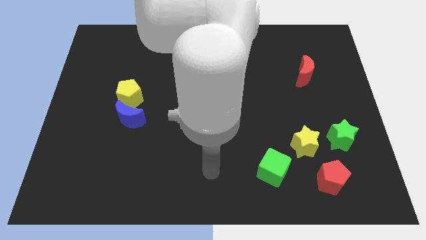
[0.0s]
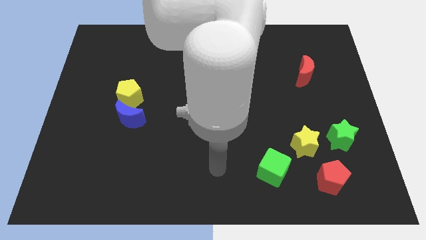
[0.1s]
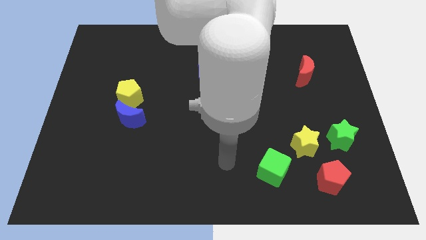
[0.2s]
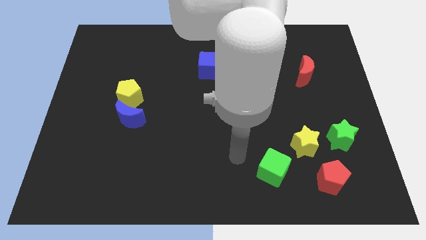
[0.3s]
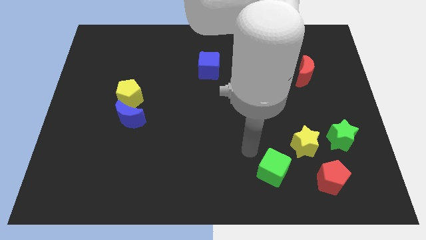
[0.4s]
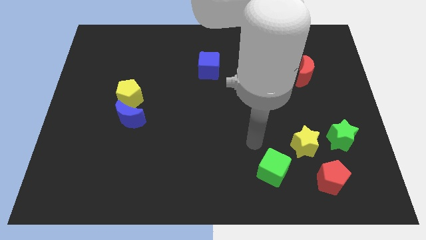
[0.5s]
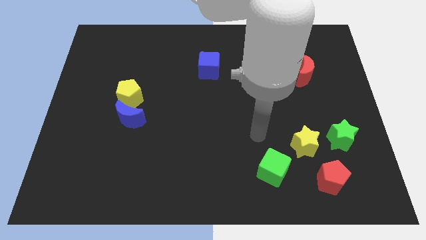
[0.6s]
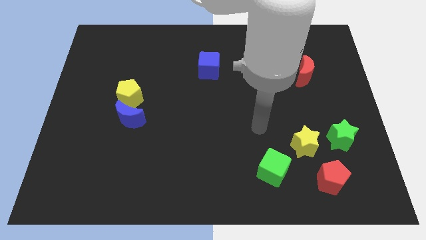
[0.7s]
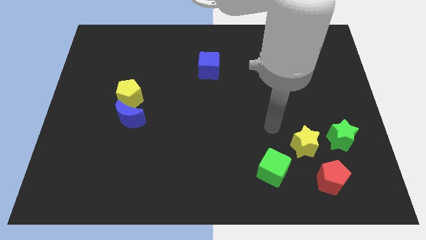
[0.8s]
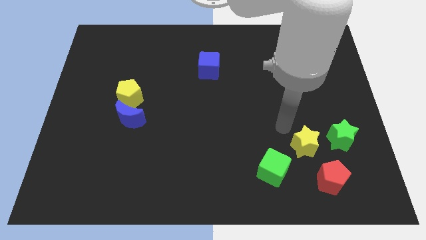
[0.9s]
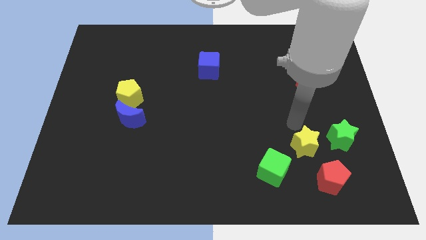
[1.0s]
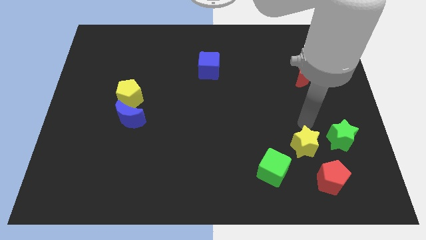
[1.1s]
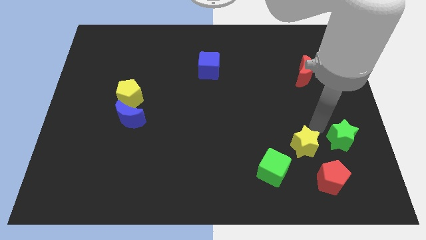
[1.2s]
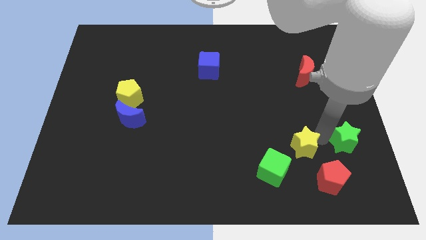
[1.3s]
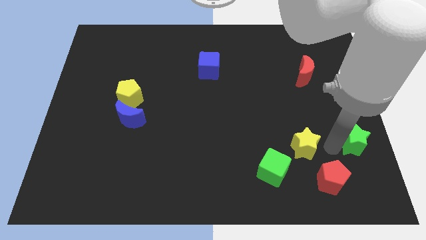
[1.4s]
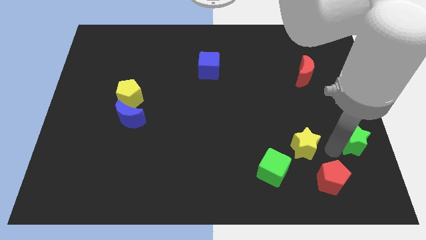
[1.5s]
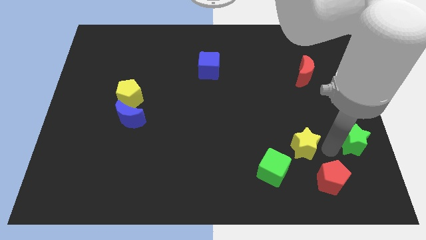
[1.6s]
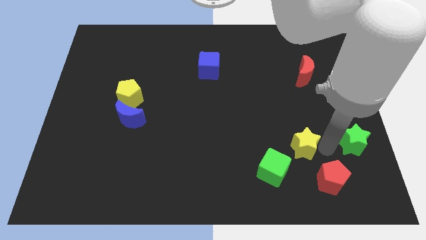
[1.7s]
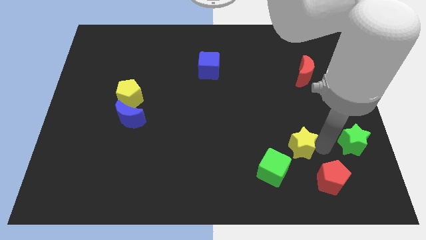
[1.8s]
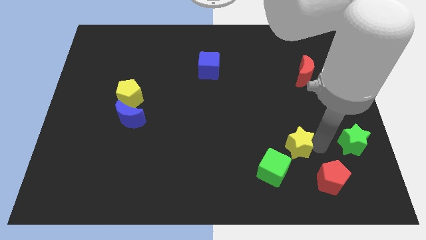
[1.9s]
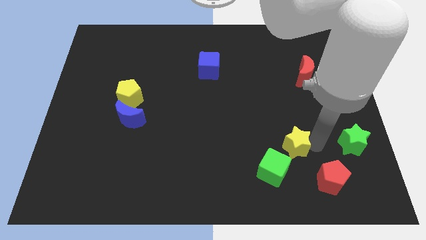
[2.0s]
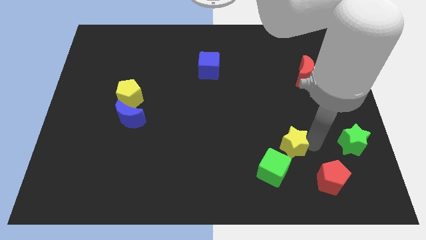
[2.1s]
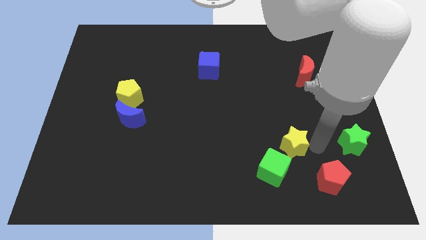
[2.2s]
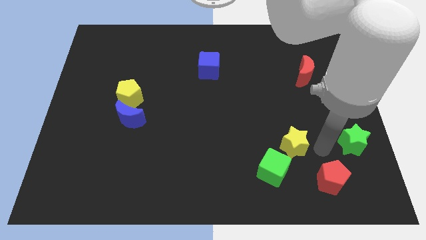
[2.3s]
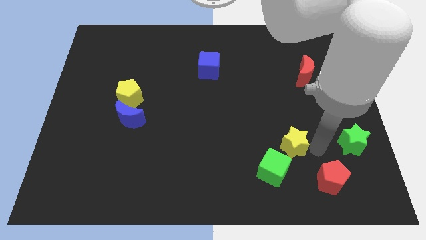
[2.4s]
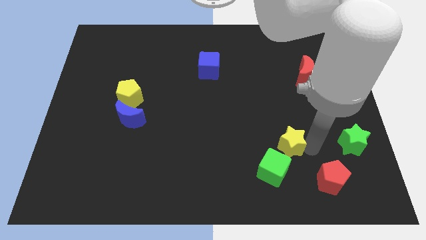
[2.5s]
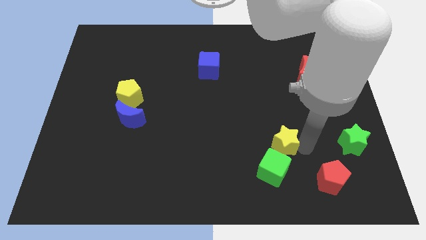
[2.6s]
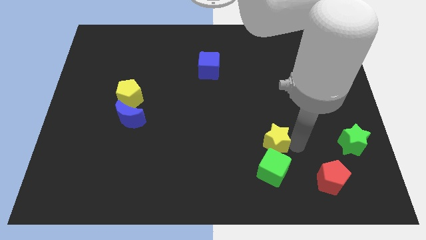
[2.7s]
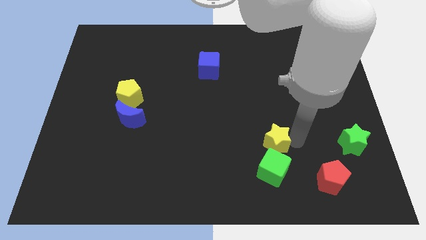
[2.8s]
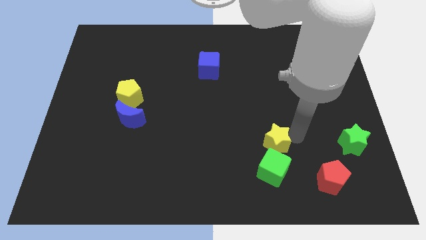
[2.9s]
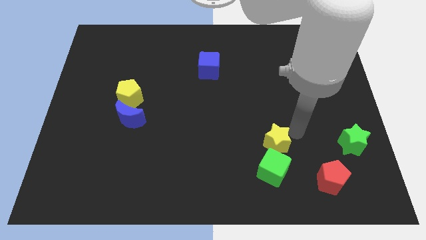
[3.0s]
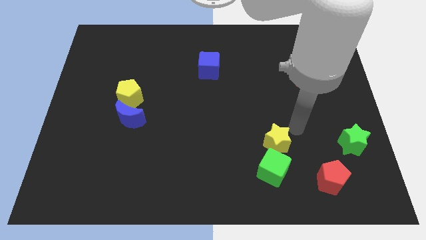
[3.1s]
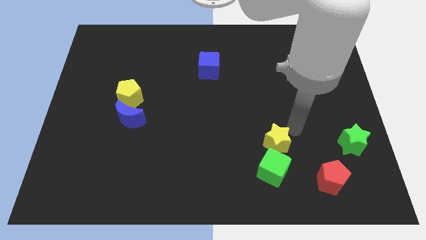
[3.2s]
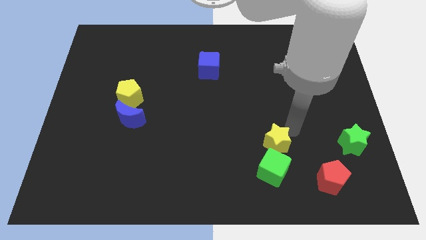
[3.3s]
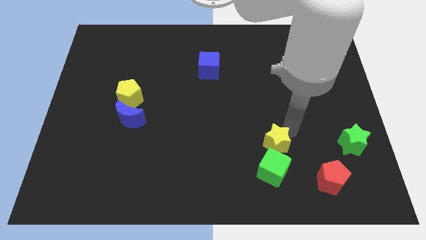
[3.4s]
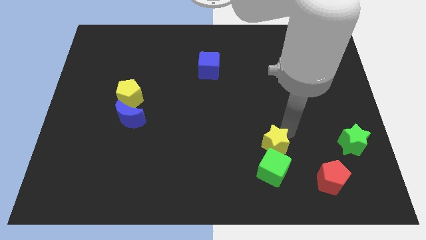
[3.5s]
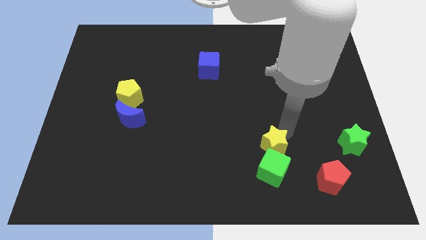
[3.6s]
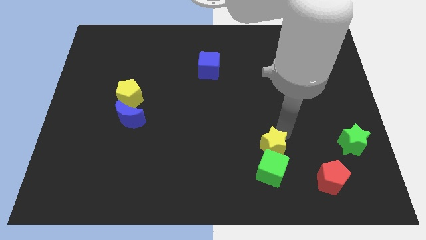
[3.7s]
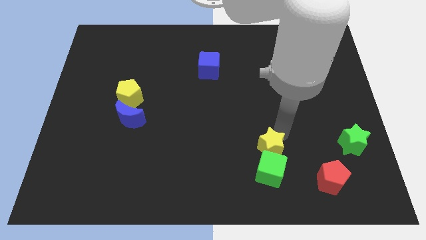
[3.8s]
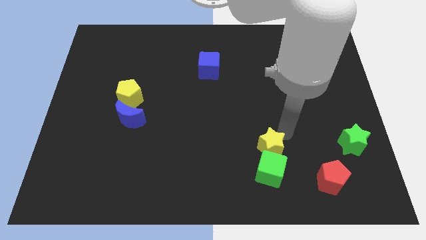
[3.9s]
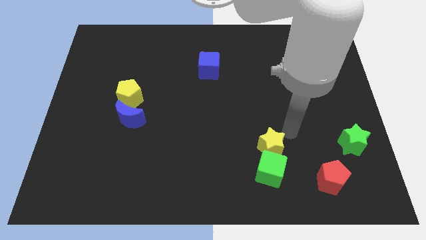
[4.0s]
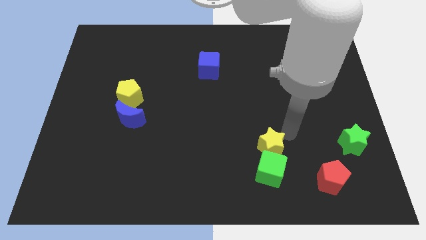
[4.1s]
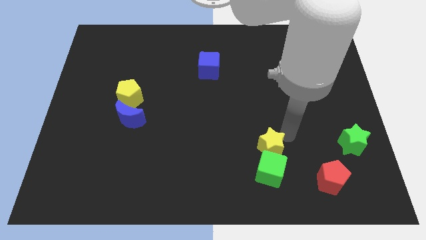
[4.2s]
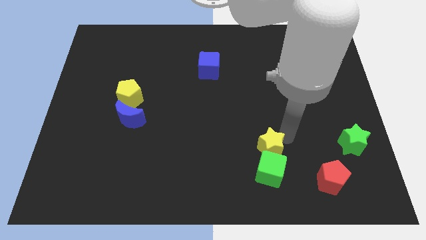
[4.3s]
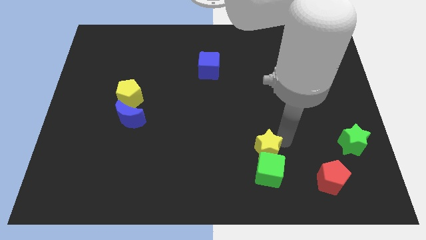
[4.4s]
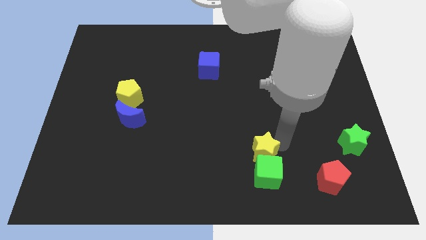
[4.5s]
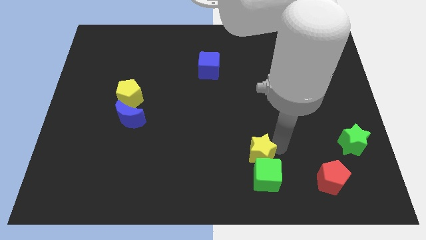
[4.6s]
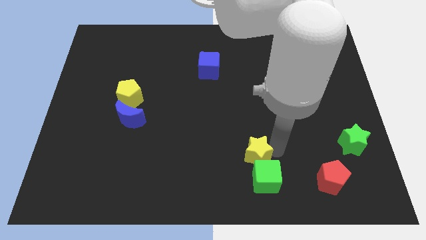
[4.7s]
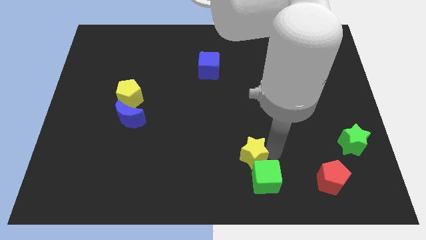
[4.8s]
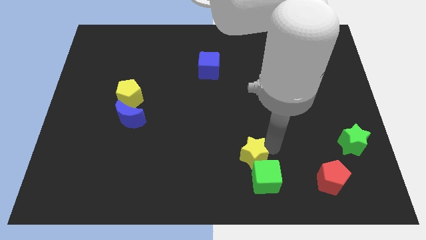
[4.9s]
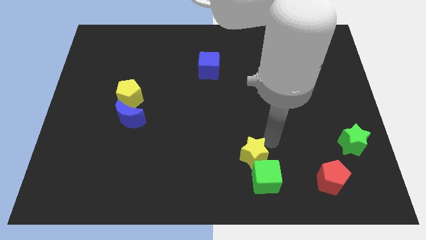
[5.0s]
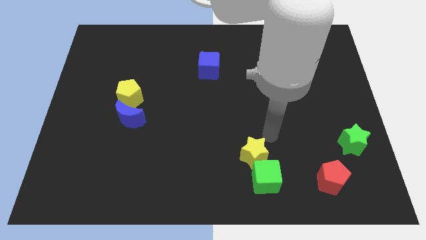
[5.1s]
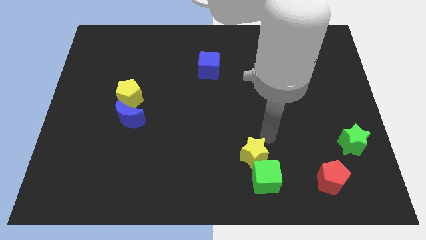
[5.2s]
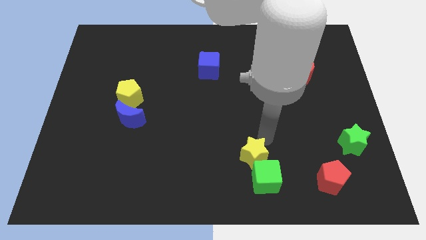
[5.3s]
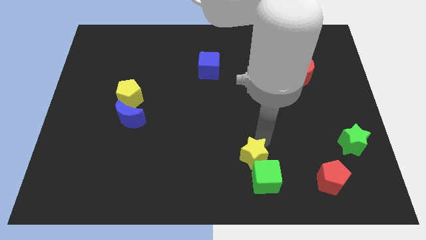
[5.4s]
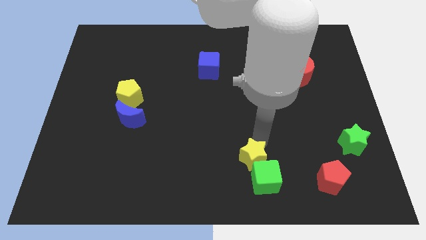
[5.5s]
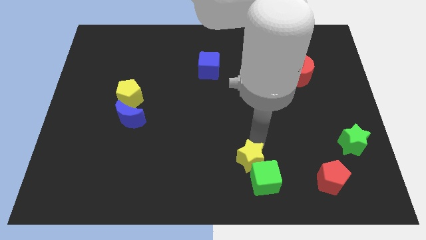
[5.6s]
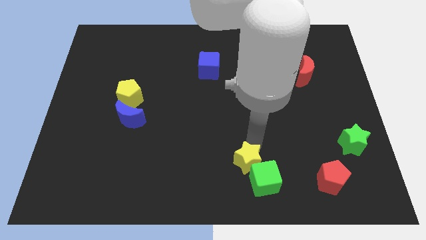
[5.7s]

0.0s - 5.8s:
push the yellow star to the bottom side
